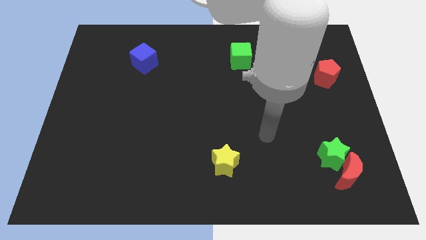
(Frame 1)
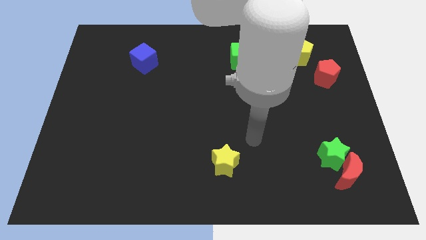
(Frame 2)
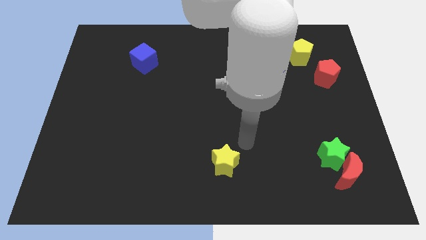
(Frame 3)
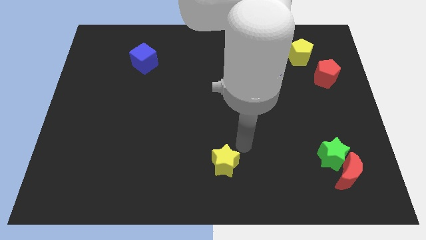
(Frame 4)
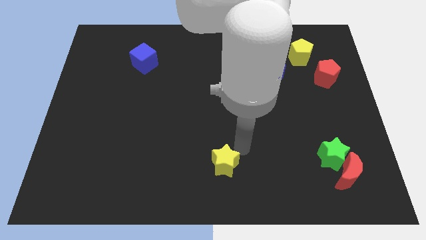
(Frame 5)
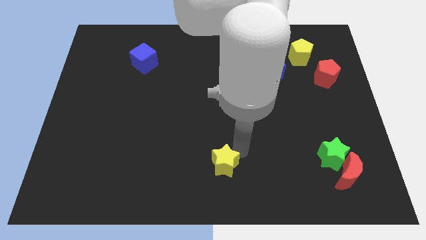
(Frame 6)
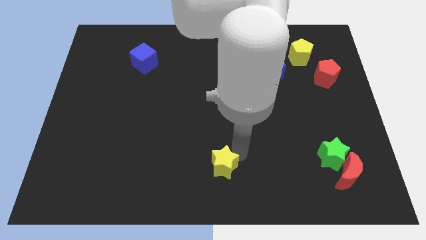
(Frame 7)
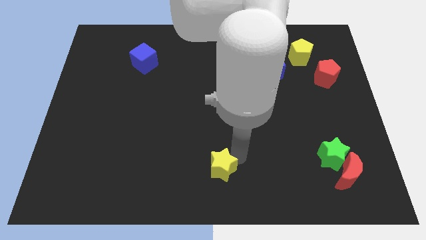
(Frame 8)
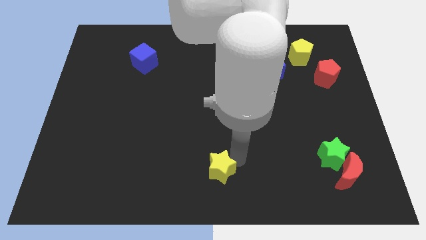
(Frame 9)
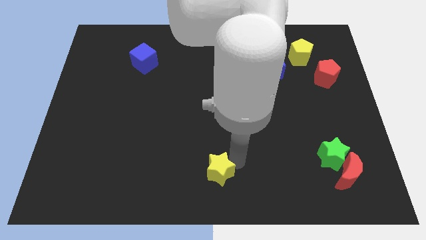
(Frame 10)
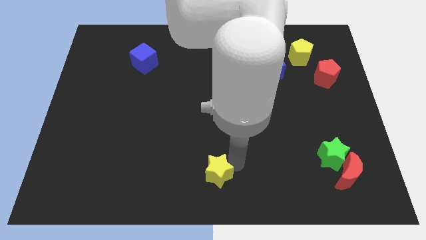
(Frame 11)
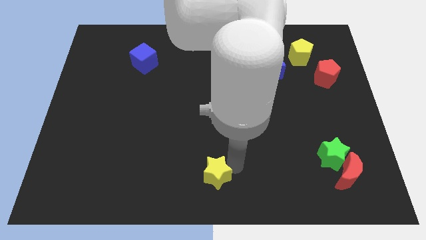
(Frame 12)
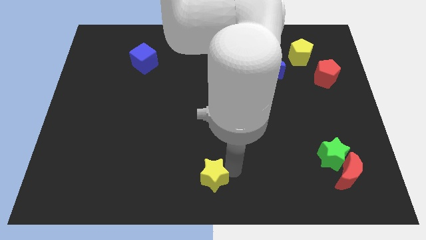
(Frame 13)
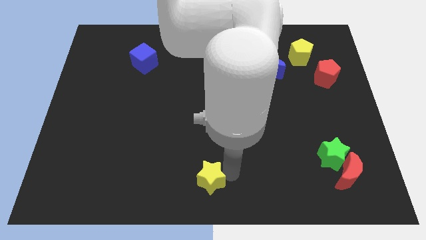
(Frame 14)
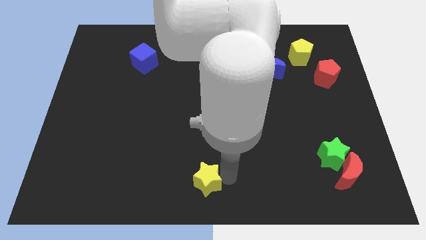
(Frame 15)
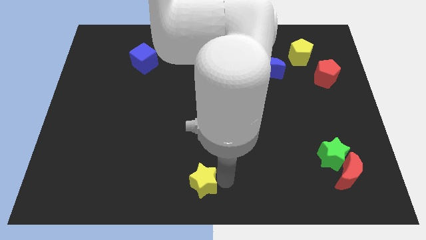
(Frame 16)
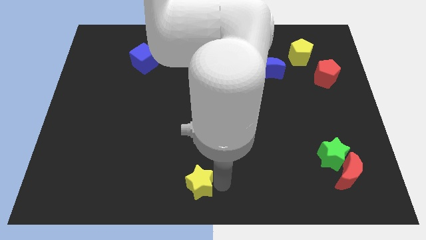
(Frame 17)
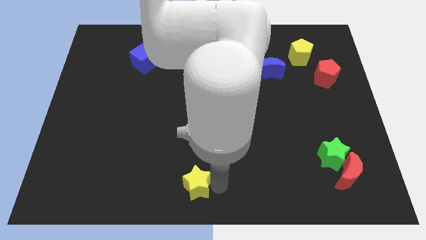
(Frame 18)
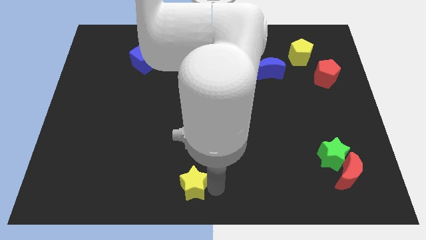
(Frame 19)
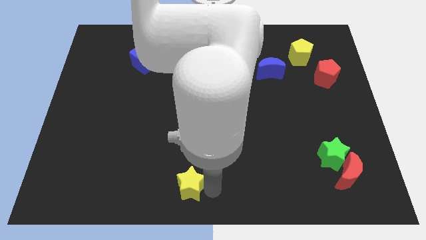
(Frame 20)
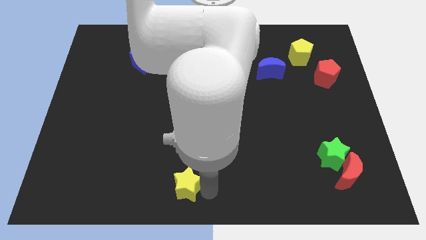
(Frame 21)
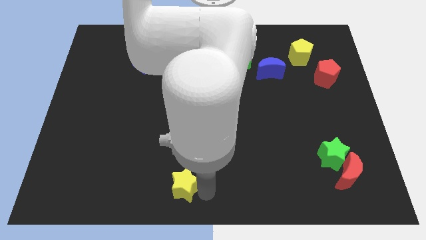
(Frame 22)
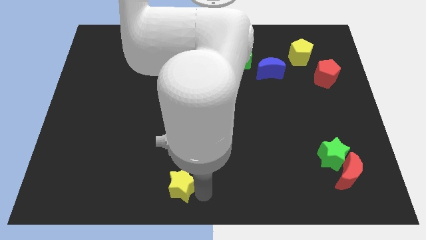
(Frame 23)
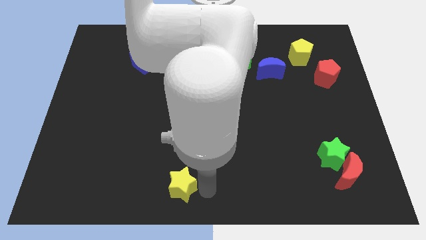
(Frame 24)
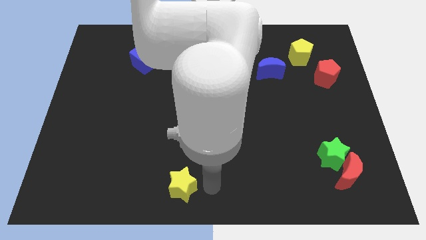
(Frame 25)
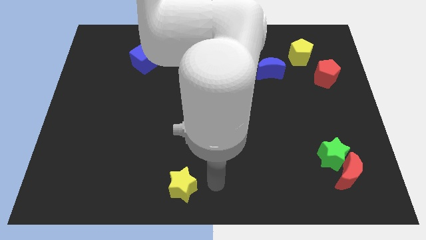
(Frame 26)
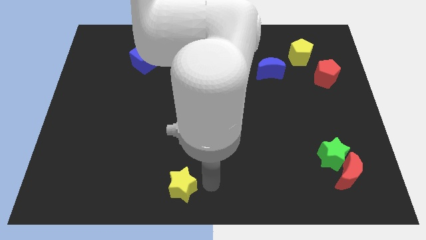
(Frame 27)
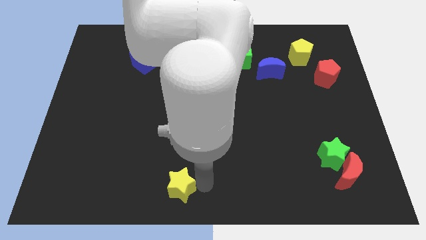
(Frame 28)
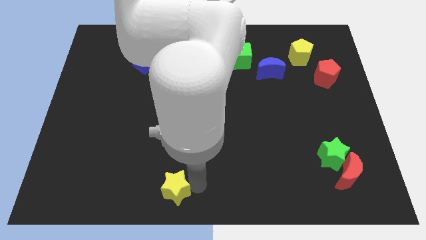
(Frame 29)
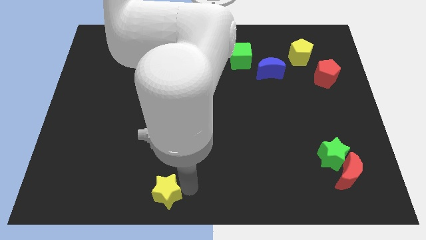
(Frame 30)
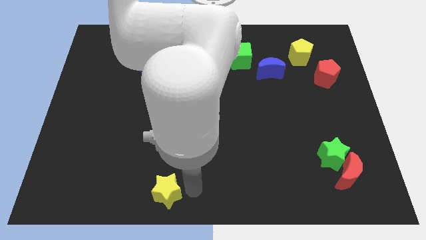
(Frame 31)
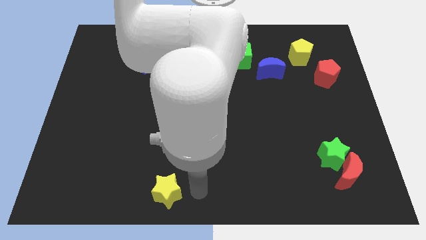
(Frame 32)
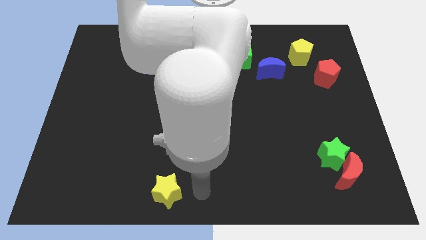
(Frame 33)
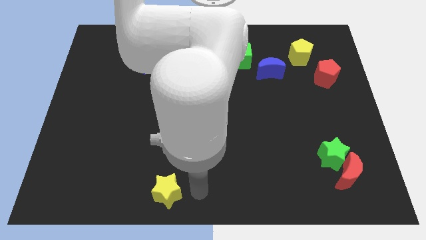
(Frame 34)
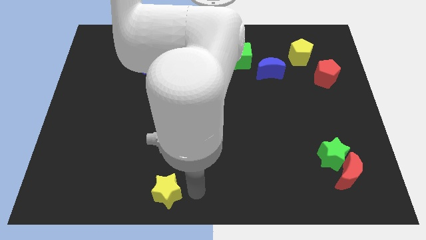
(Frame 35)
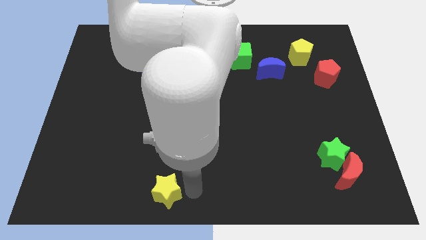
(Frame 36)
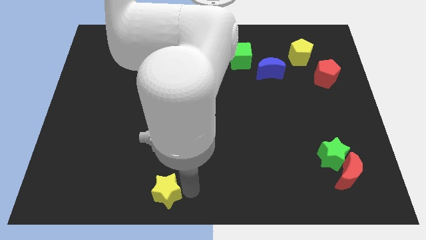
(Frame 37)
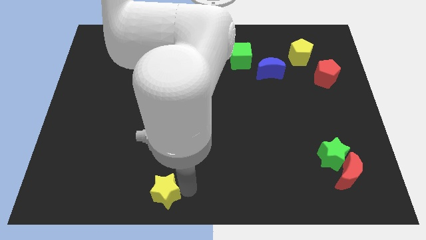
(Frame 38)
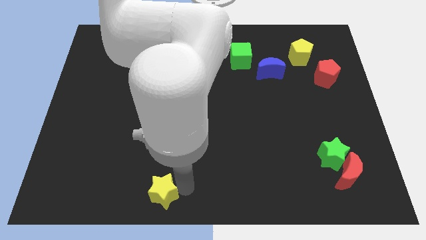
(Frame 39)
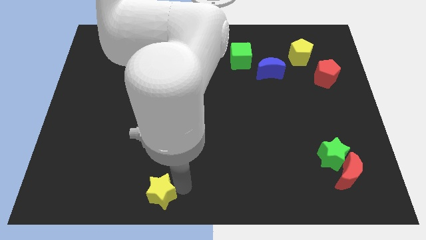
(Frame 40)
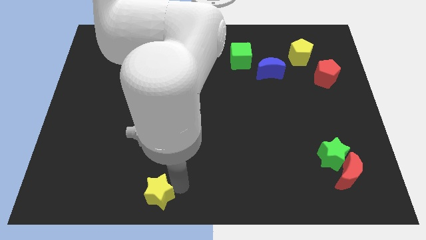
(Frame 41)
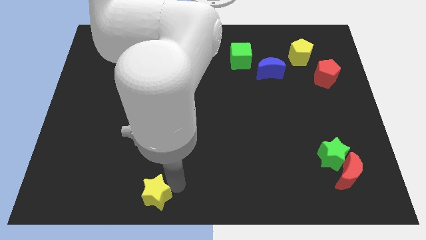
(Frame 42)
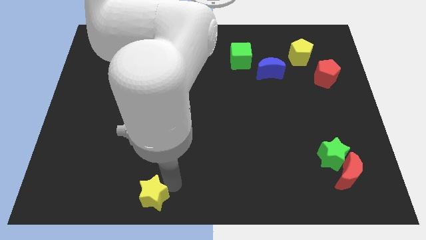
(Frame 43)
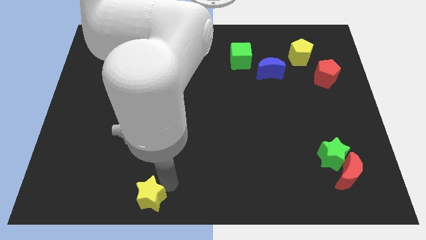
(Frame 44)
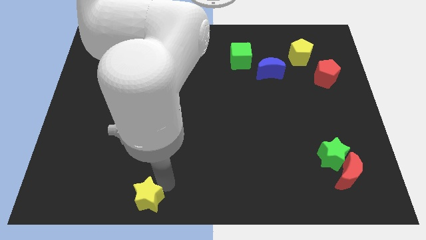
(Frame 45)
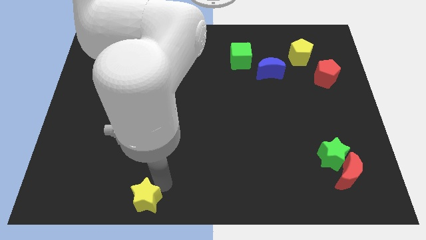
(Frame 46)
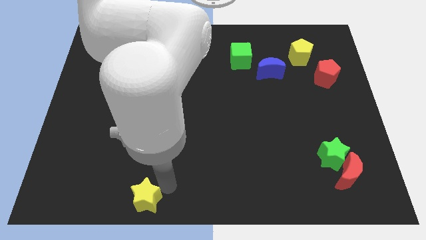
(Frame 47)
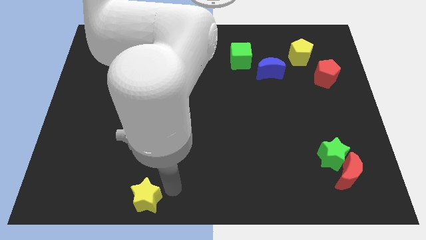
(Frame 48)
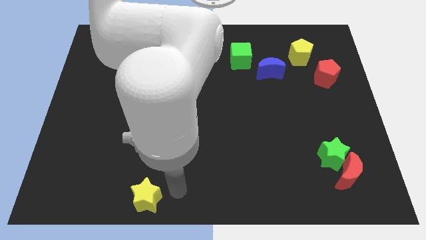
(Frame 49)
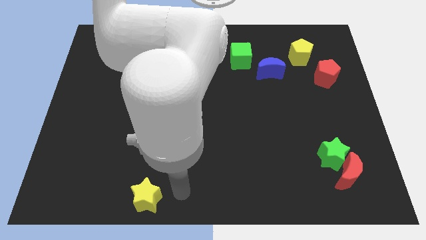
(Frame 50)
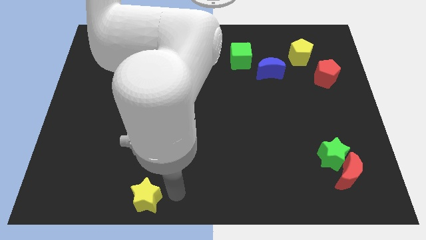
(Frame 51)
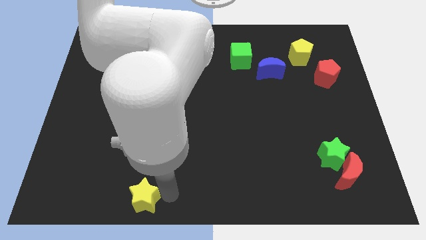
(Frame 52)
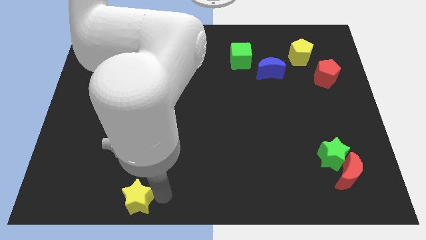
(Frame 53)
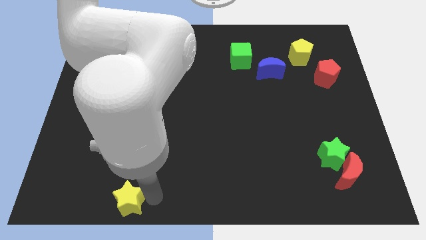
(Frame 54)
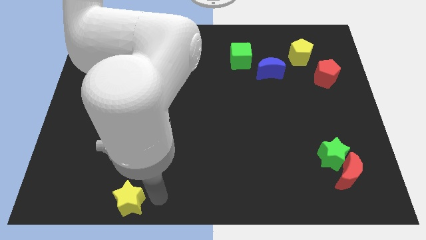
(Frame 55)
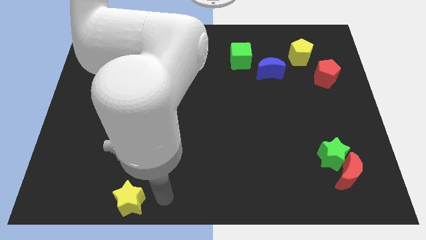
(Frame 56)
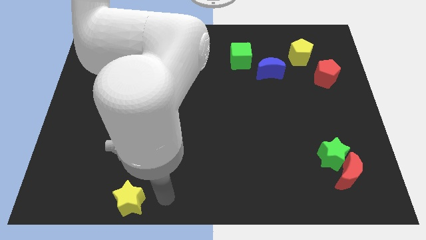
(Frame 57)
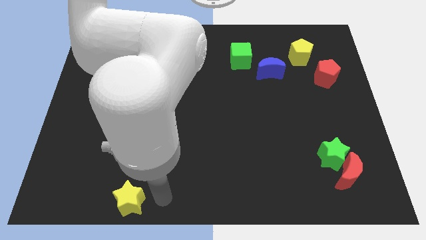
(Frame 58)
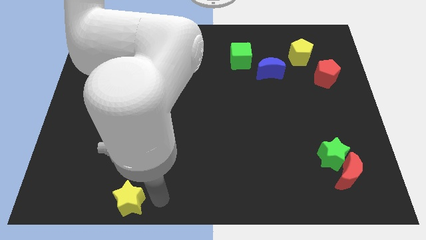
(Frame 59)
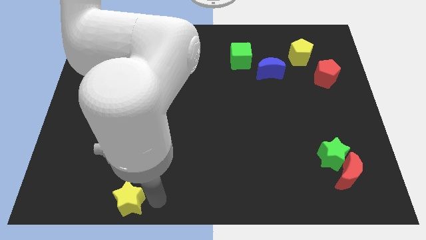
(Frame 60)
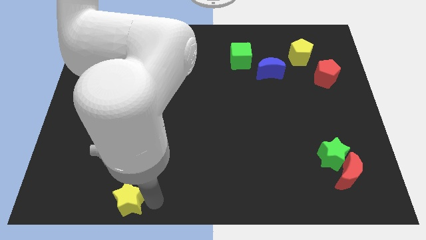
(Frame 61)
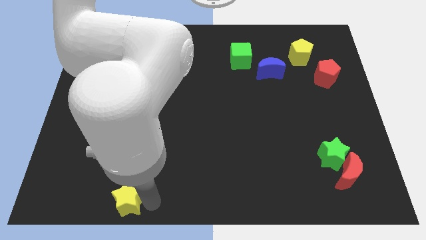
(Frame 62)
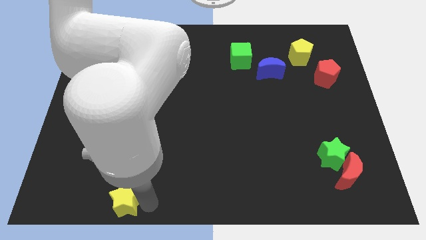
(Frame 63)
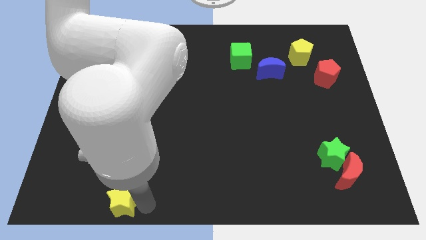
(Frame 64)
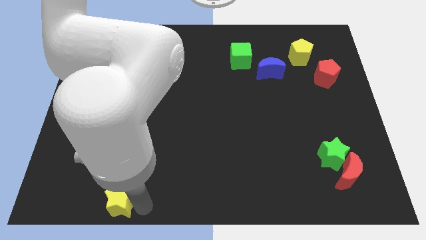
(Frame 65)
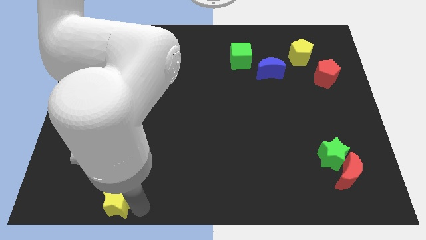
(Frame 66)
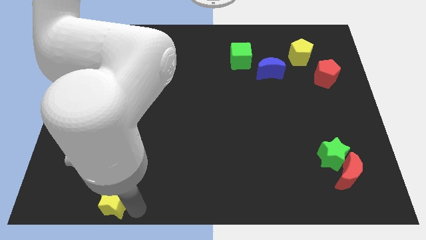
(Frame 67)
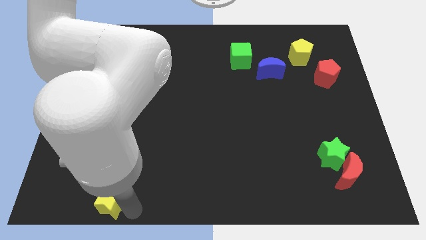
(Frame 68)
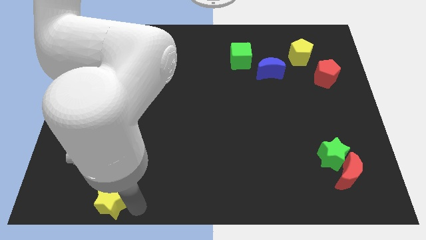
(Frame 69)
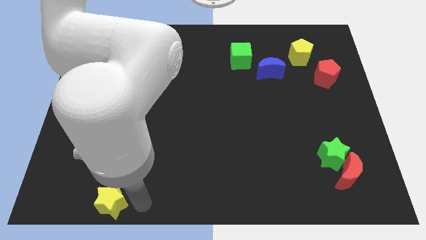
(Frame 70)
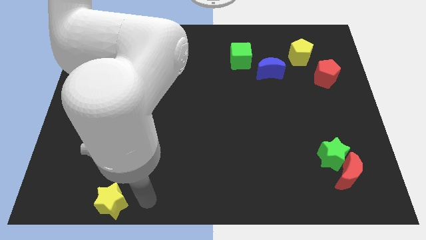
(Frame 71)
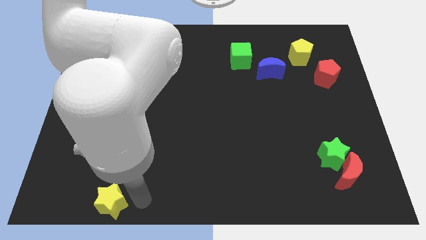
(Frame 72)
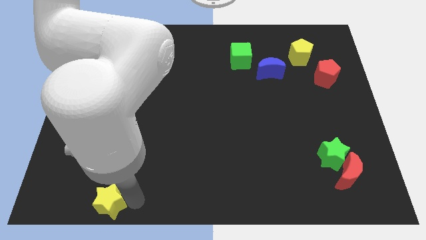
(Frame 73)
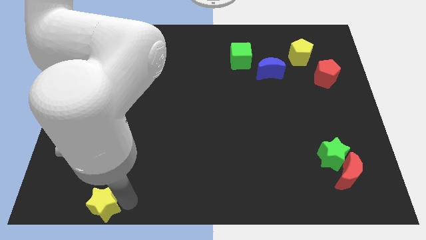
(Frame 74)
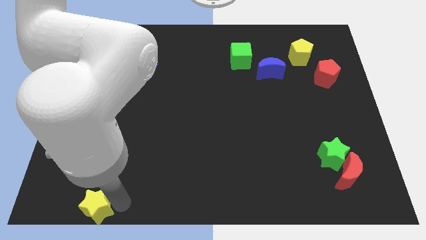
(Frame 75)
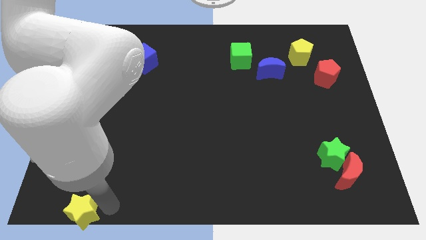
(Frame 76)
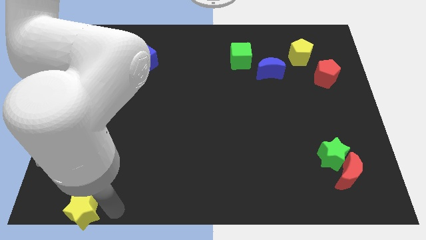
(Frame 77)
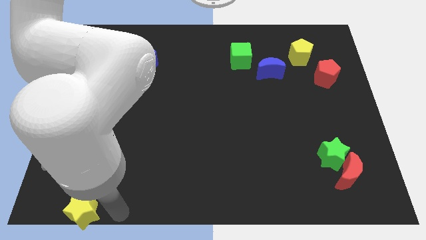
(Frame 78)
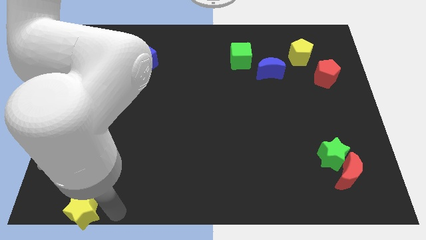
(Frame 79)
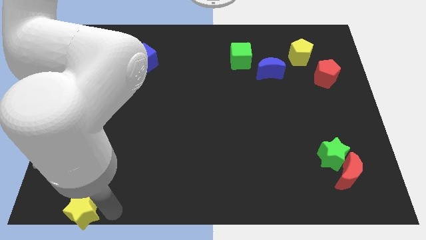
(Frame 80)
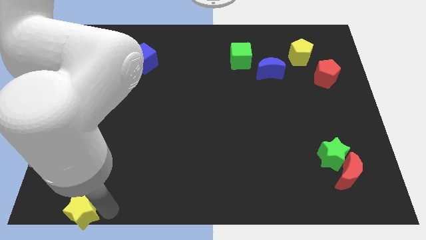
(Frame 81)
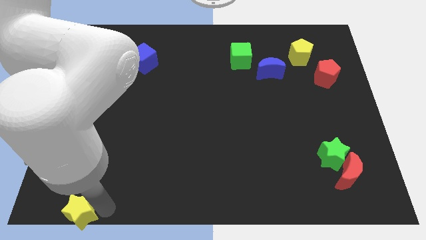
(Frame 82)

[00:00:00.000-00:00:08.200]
slide the yellow star to the bottom left
